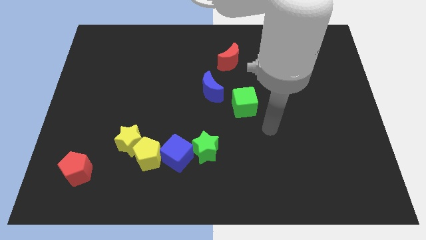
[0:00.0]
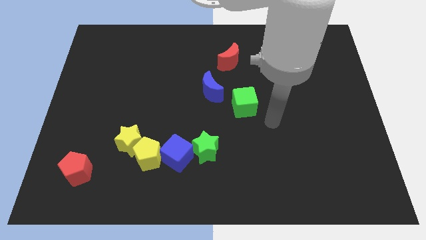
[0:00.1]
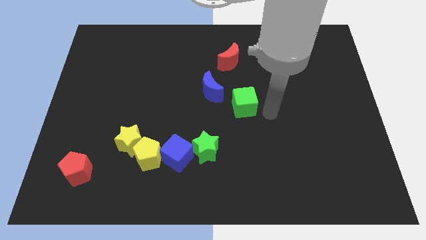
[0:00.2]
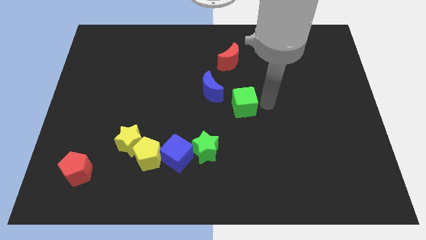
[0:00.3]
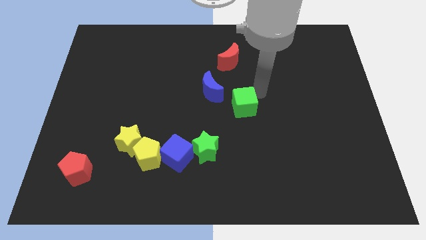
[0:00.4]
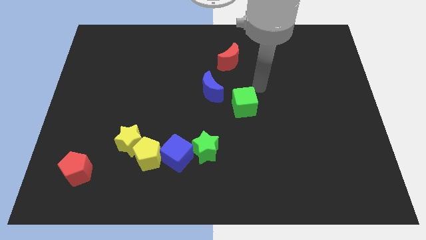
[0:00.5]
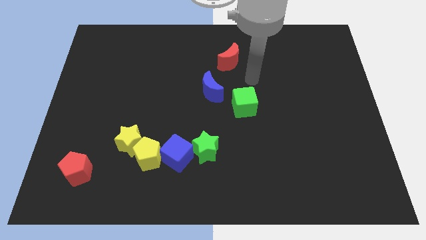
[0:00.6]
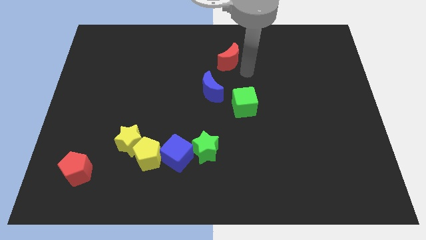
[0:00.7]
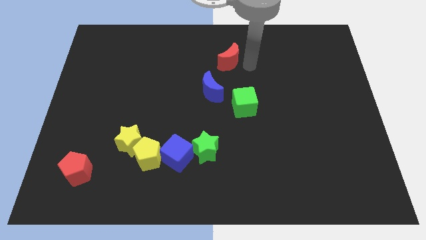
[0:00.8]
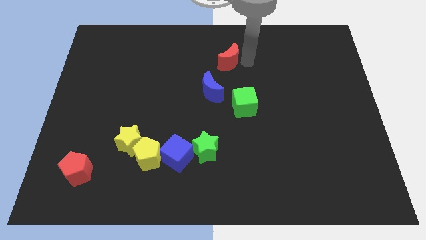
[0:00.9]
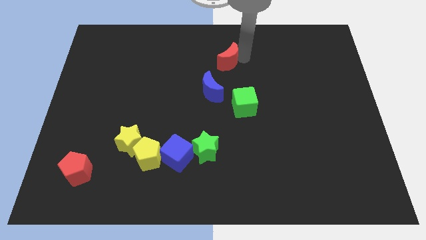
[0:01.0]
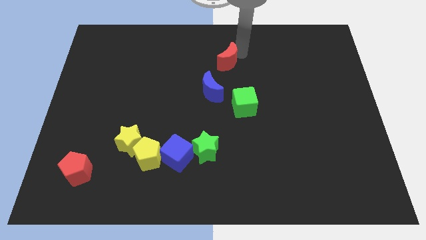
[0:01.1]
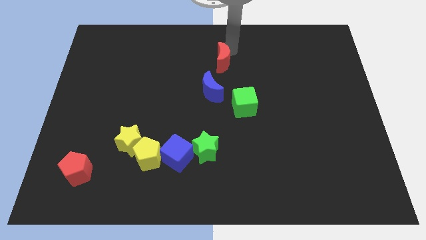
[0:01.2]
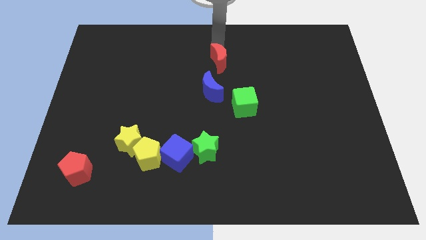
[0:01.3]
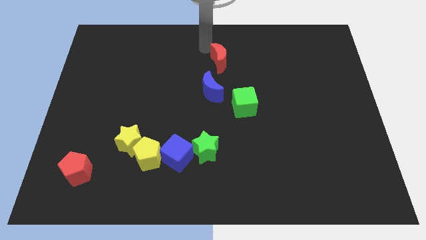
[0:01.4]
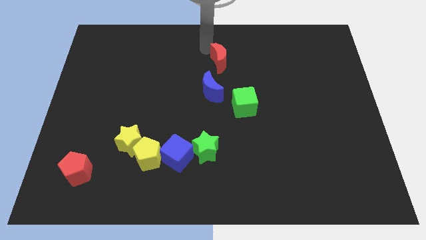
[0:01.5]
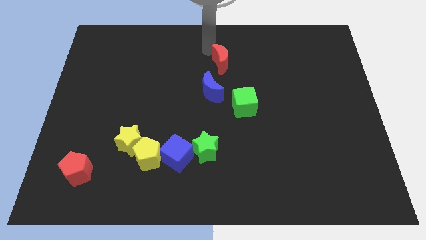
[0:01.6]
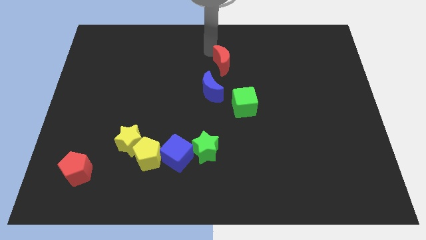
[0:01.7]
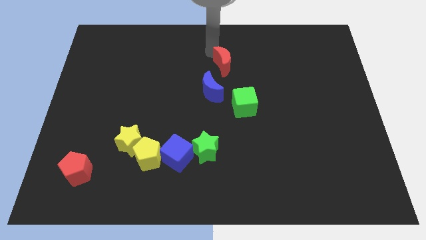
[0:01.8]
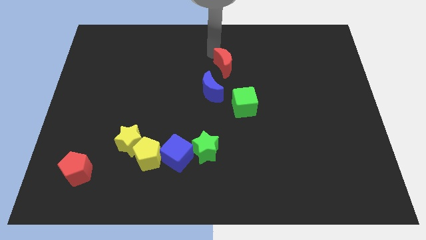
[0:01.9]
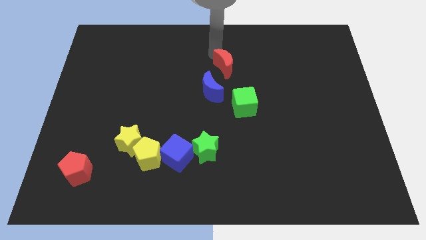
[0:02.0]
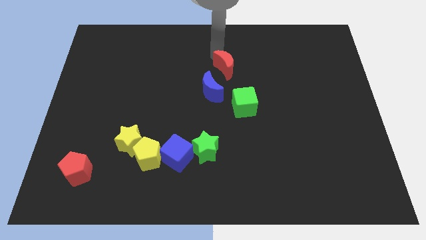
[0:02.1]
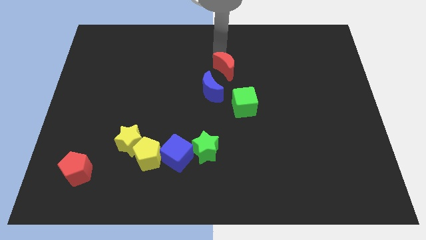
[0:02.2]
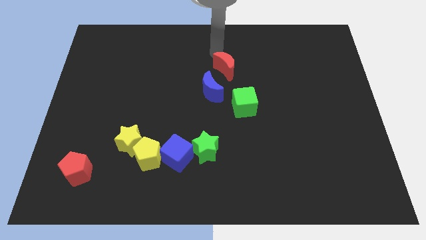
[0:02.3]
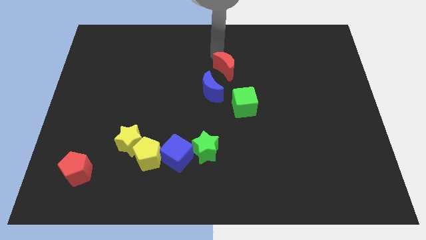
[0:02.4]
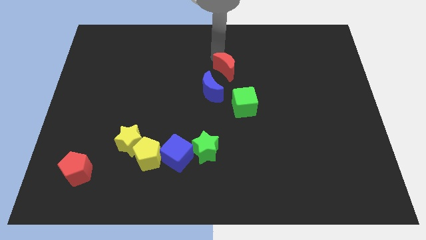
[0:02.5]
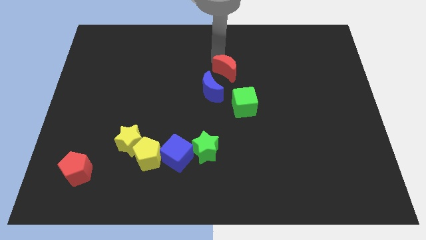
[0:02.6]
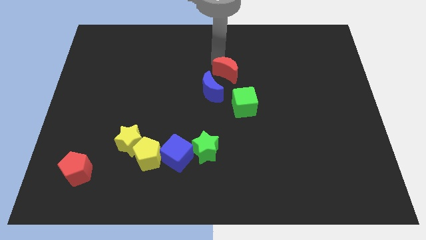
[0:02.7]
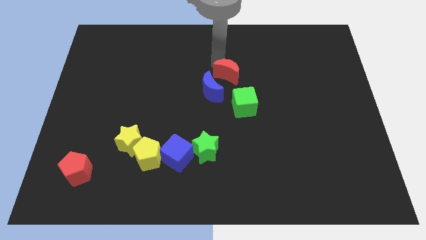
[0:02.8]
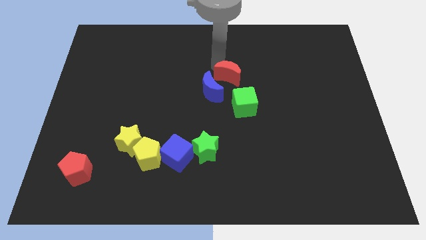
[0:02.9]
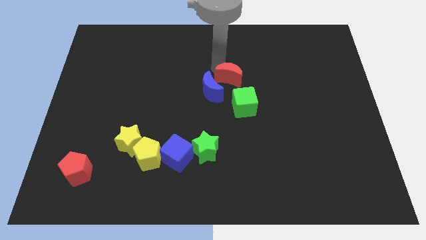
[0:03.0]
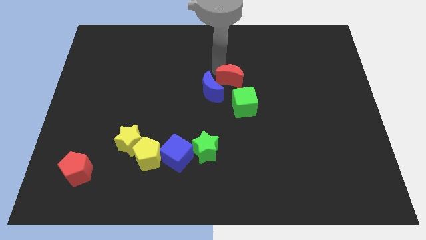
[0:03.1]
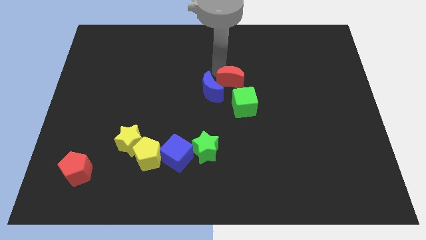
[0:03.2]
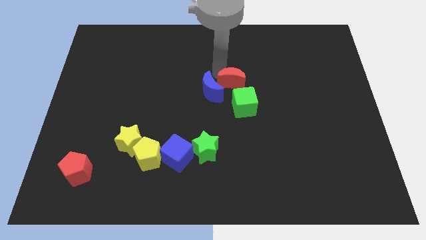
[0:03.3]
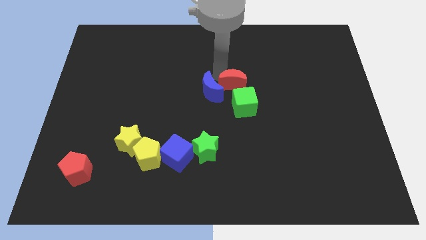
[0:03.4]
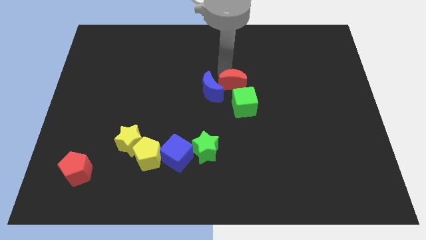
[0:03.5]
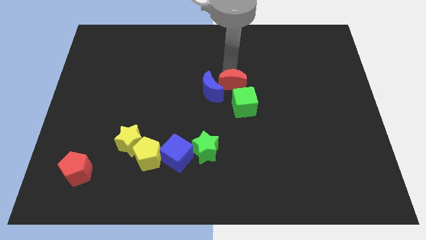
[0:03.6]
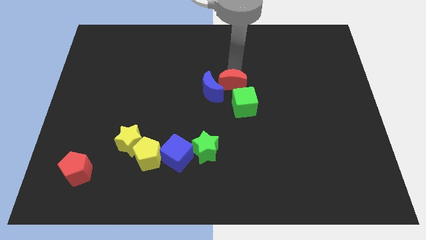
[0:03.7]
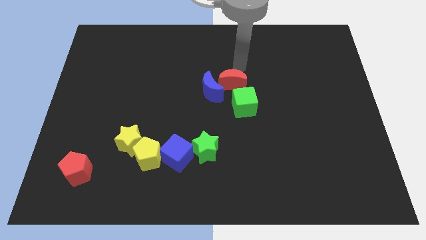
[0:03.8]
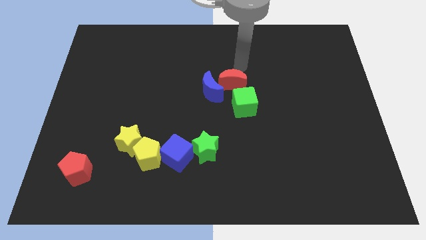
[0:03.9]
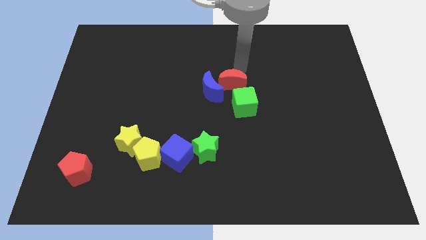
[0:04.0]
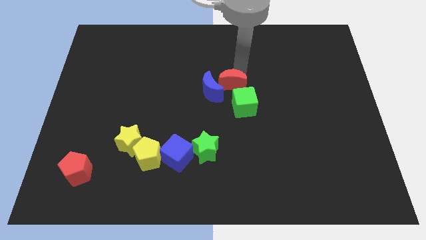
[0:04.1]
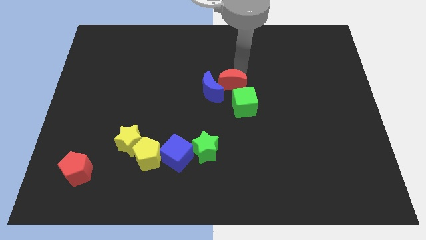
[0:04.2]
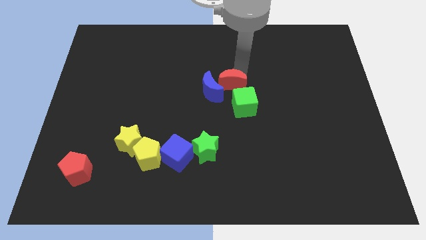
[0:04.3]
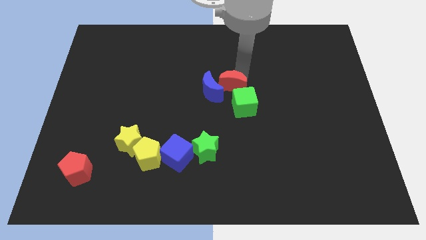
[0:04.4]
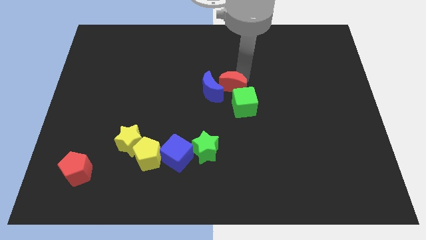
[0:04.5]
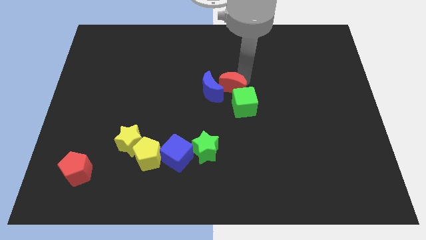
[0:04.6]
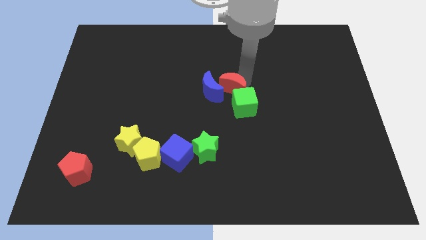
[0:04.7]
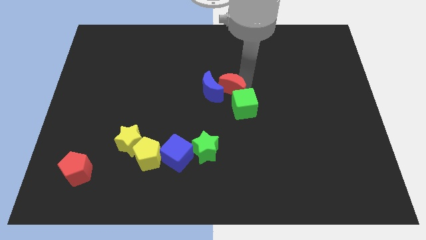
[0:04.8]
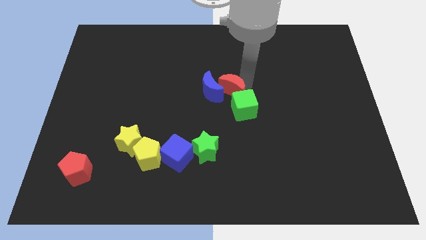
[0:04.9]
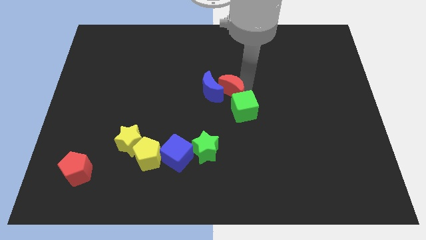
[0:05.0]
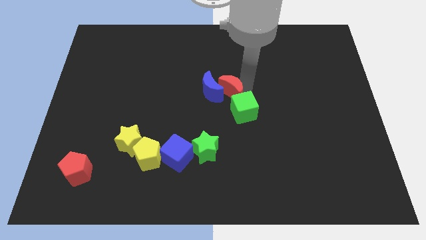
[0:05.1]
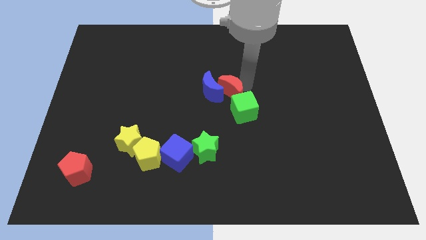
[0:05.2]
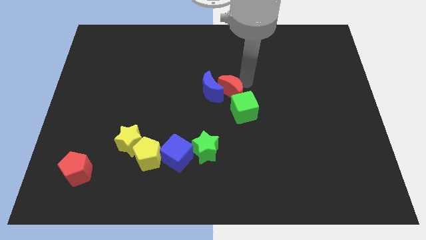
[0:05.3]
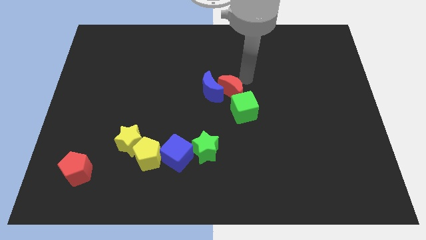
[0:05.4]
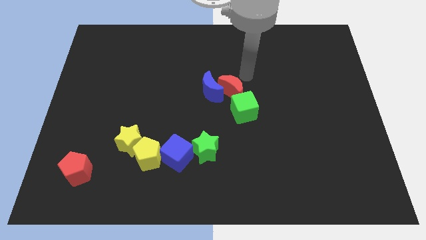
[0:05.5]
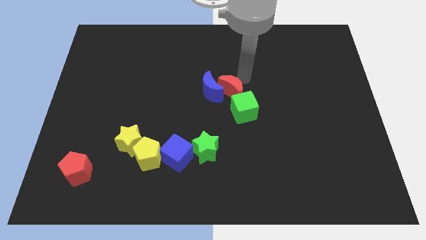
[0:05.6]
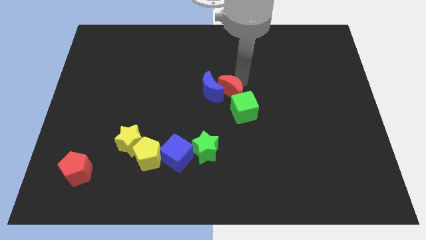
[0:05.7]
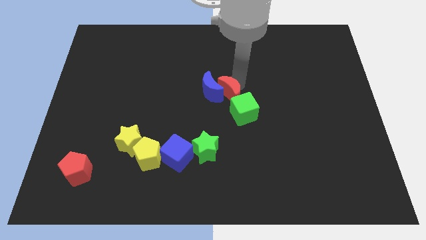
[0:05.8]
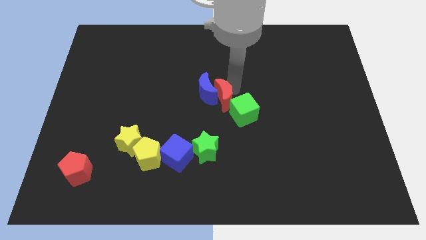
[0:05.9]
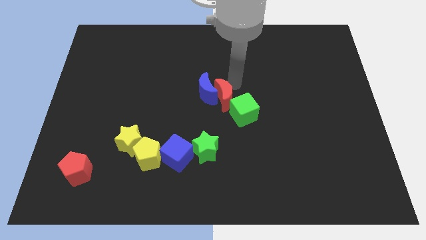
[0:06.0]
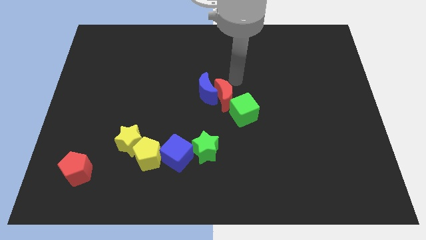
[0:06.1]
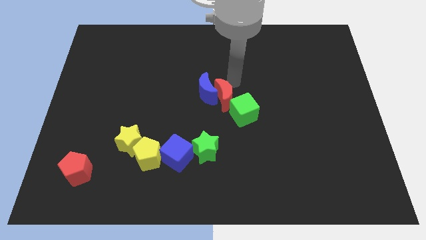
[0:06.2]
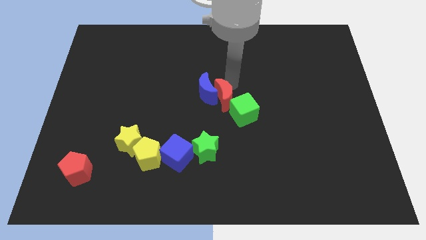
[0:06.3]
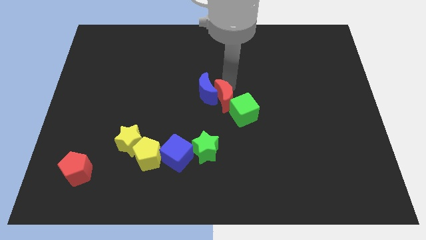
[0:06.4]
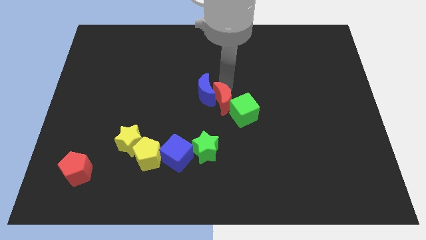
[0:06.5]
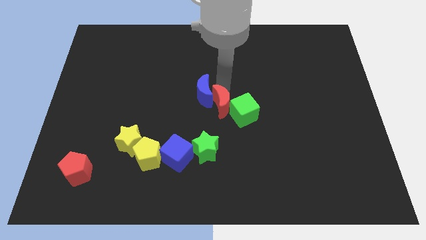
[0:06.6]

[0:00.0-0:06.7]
push the red moon to the bottom side of the blue moon
